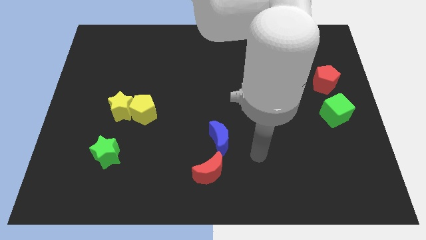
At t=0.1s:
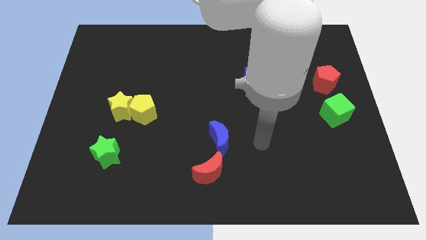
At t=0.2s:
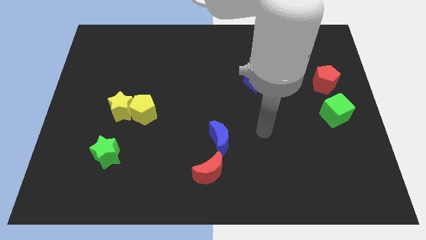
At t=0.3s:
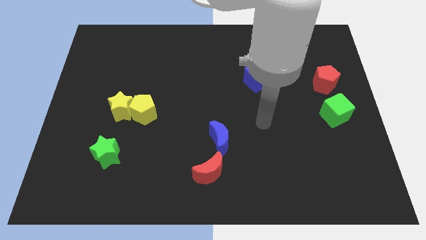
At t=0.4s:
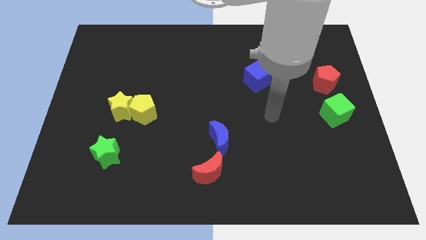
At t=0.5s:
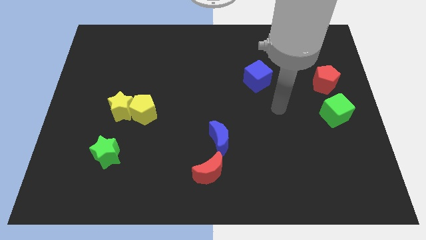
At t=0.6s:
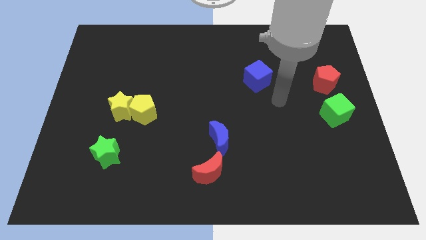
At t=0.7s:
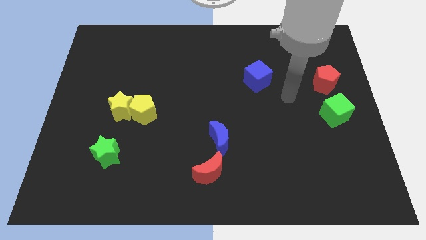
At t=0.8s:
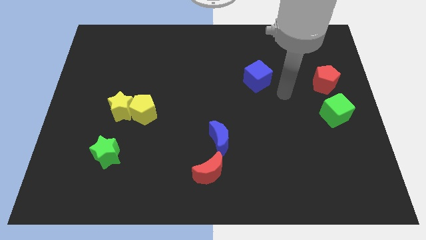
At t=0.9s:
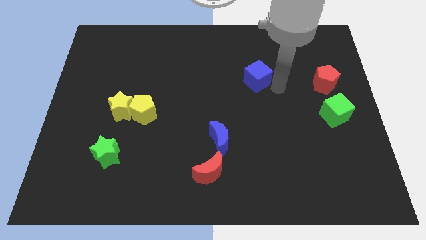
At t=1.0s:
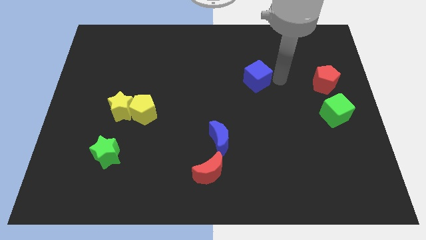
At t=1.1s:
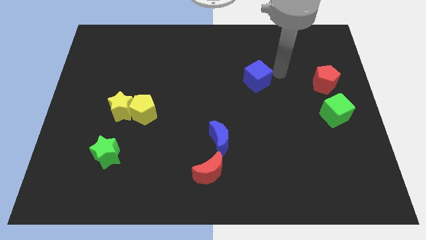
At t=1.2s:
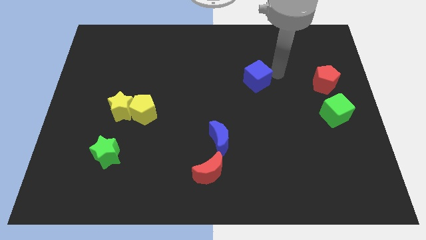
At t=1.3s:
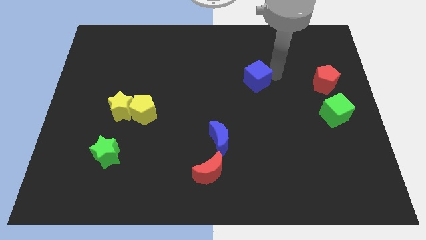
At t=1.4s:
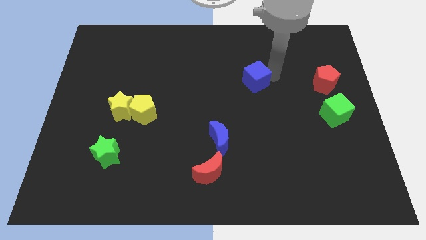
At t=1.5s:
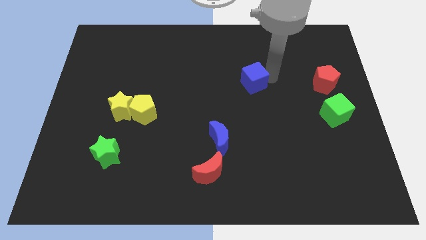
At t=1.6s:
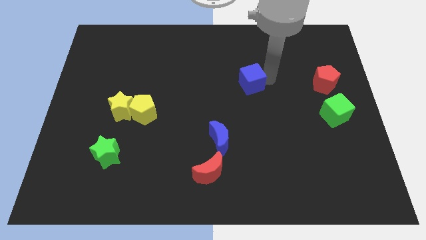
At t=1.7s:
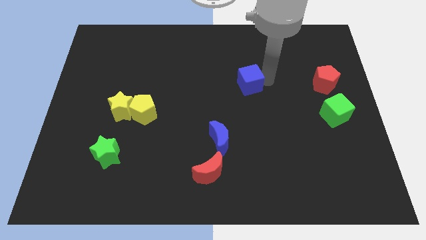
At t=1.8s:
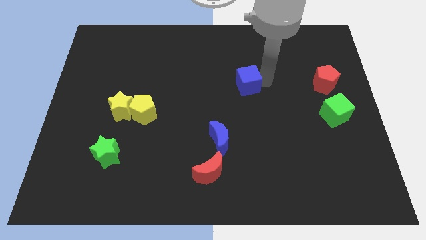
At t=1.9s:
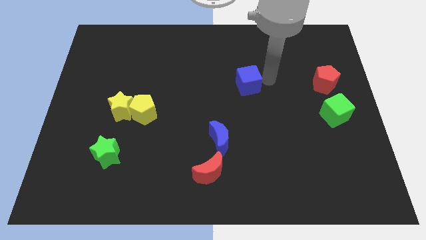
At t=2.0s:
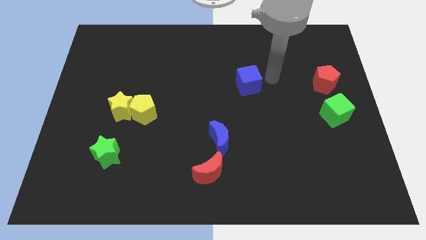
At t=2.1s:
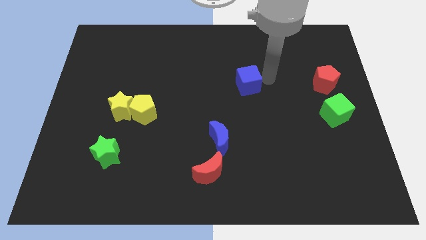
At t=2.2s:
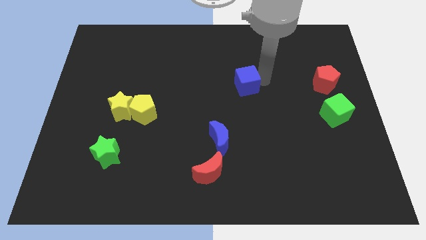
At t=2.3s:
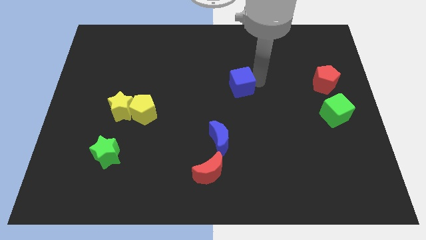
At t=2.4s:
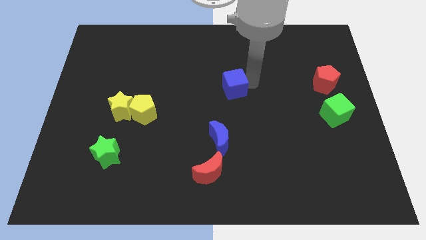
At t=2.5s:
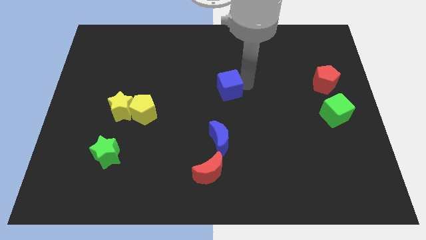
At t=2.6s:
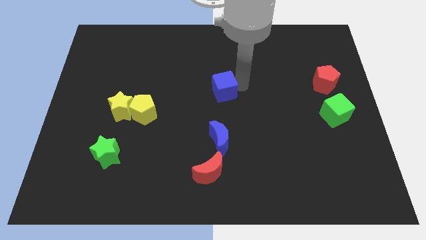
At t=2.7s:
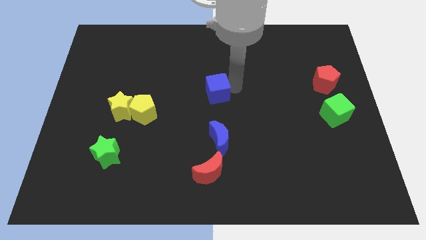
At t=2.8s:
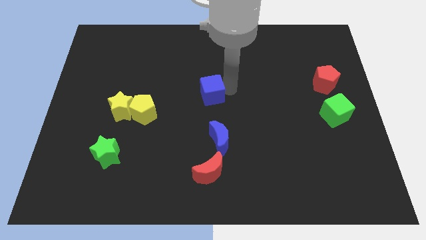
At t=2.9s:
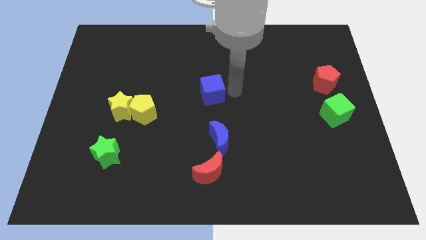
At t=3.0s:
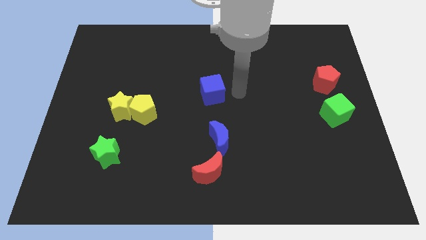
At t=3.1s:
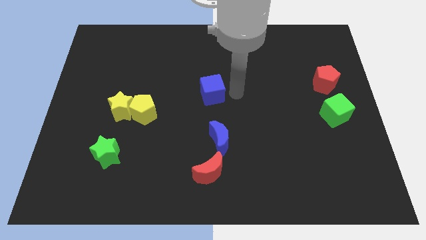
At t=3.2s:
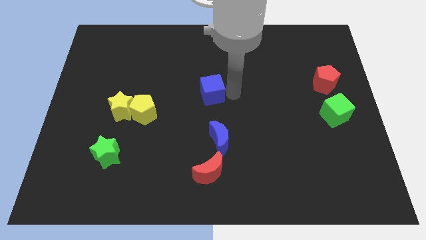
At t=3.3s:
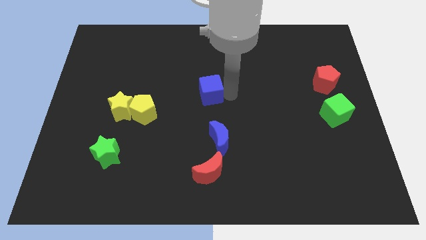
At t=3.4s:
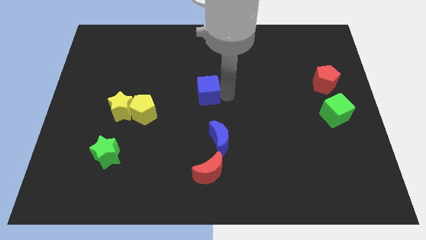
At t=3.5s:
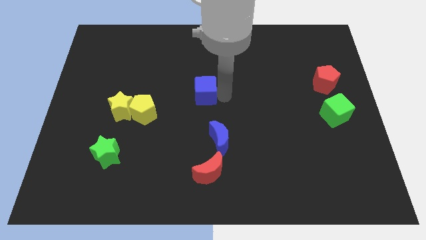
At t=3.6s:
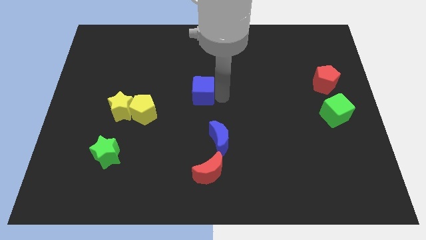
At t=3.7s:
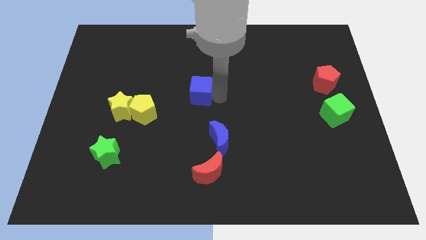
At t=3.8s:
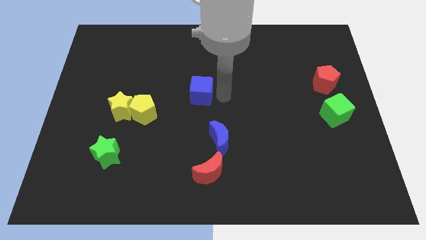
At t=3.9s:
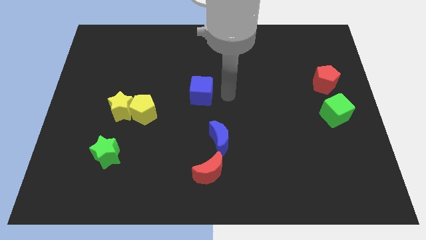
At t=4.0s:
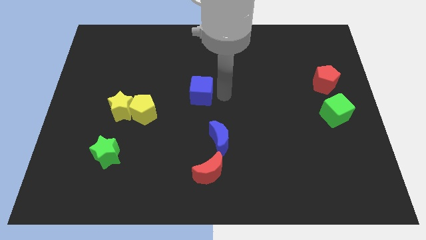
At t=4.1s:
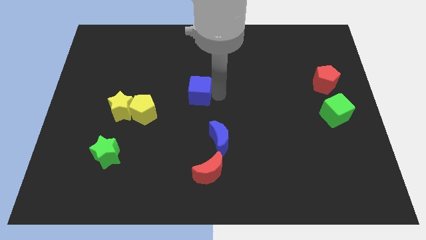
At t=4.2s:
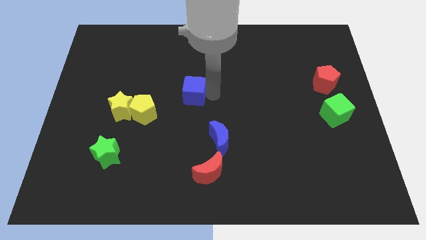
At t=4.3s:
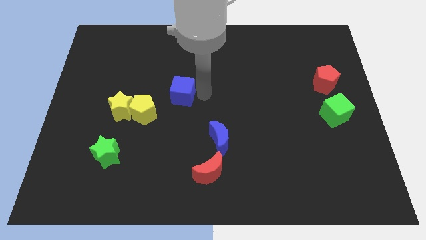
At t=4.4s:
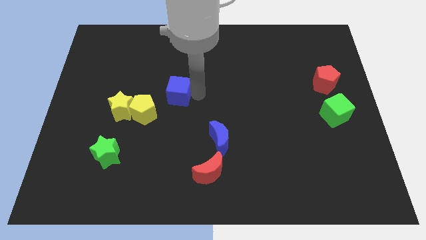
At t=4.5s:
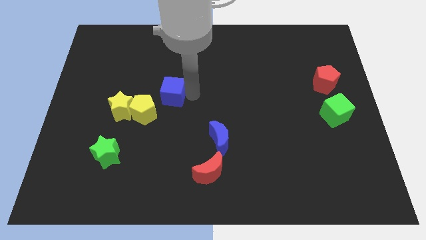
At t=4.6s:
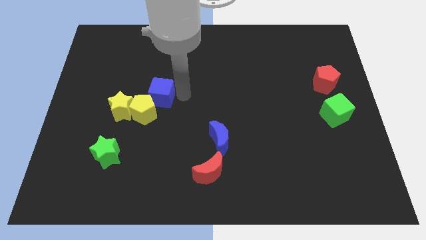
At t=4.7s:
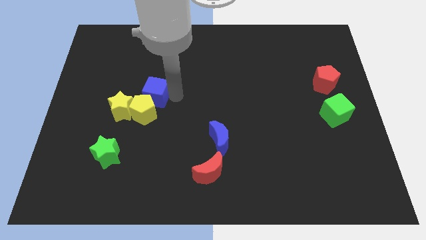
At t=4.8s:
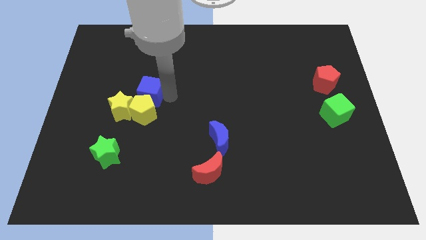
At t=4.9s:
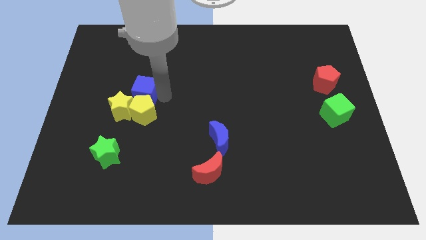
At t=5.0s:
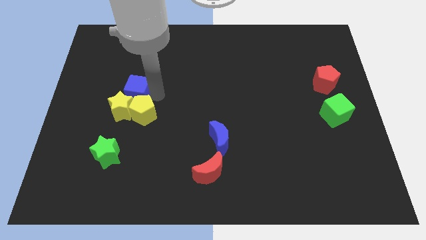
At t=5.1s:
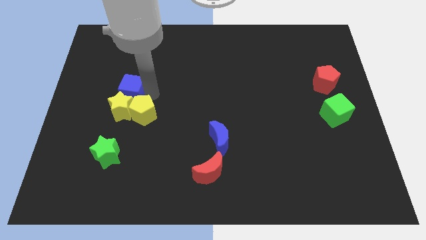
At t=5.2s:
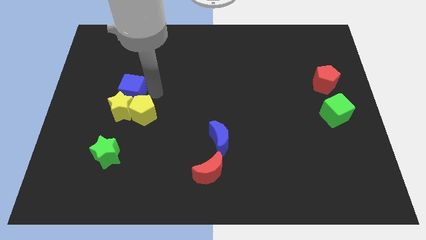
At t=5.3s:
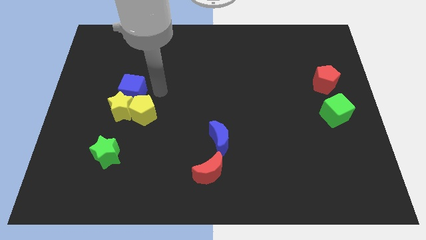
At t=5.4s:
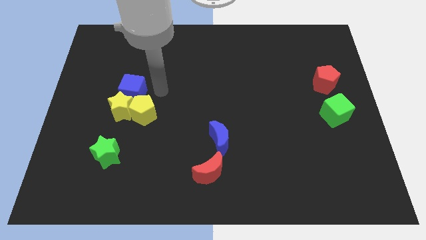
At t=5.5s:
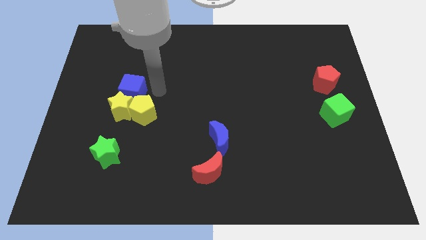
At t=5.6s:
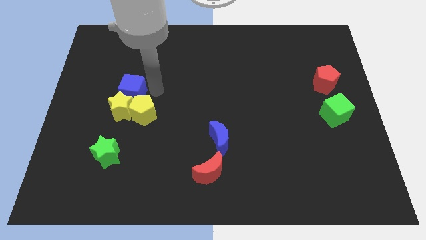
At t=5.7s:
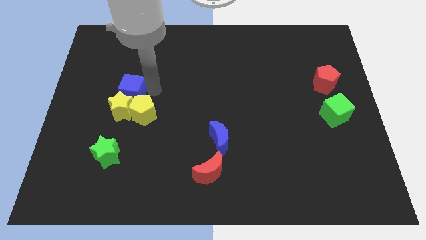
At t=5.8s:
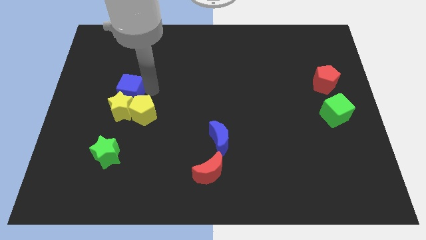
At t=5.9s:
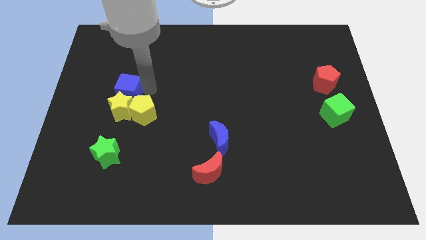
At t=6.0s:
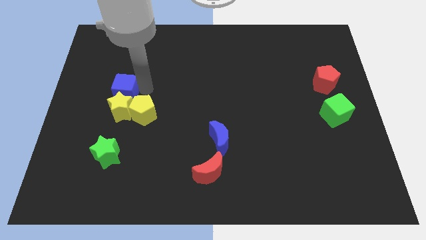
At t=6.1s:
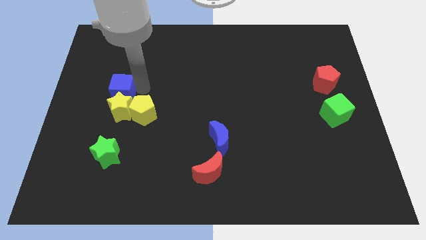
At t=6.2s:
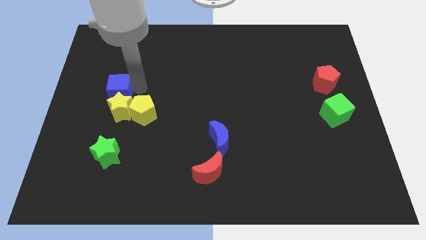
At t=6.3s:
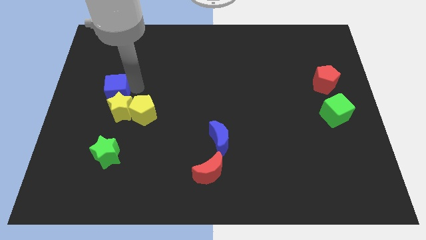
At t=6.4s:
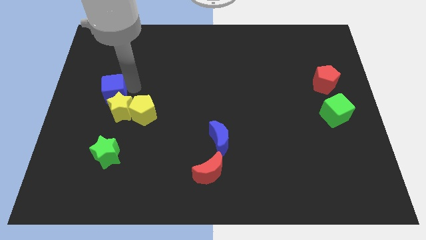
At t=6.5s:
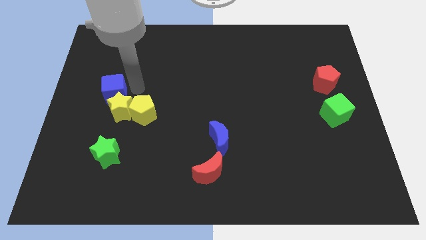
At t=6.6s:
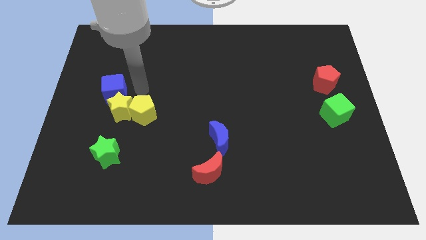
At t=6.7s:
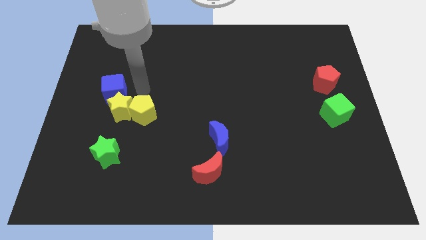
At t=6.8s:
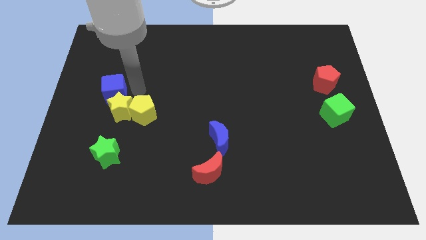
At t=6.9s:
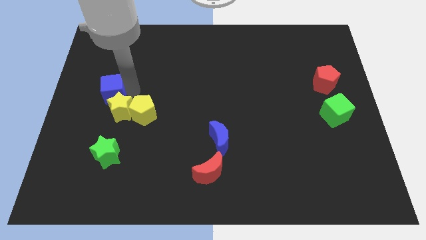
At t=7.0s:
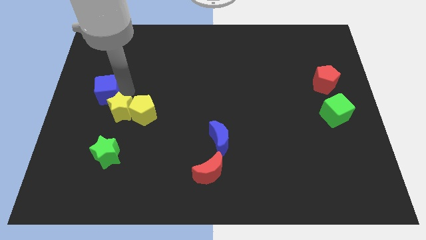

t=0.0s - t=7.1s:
move the blue cube to the center left
